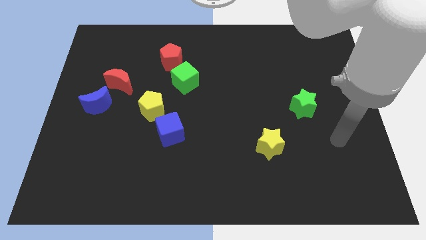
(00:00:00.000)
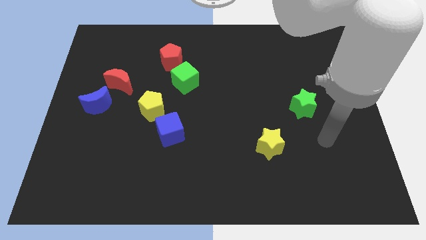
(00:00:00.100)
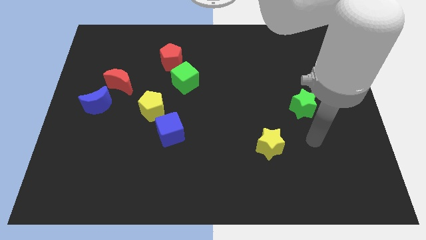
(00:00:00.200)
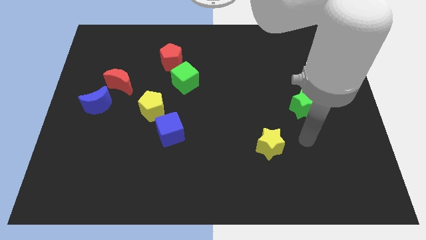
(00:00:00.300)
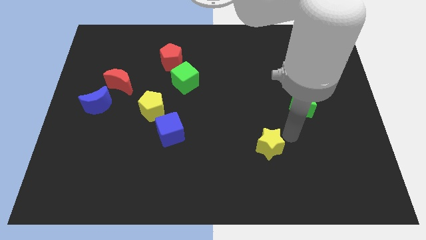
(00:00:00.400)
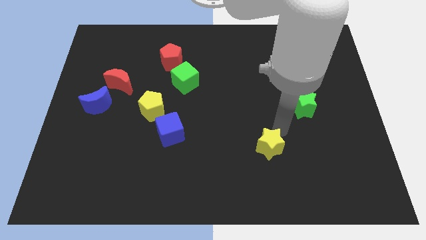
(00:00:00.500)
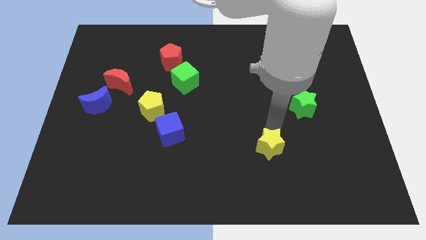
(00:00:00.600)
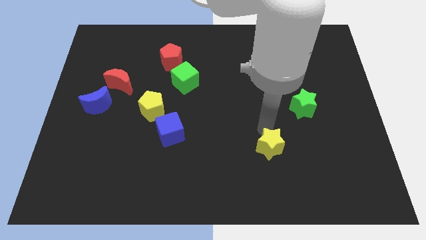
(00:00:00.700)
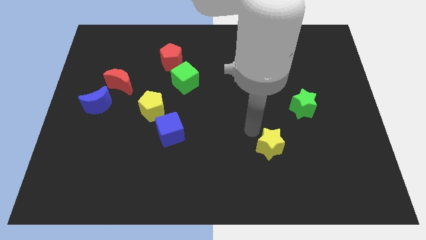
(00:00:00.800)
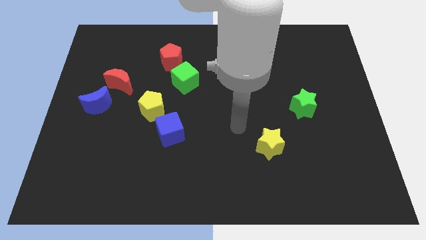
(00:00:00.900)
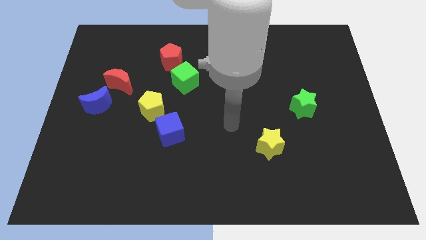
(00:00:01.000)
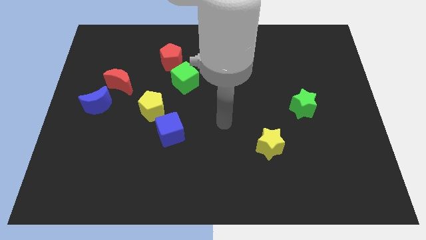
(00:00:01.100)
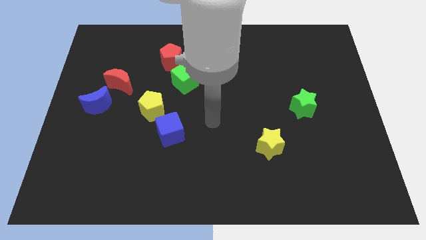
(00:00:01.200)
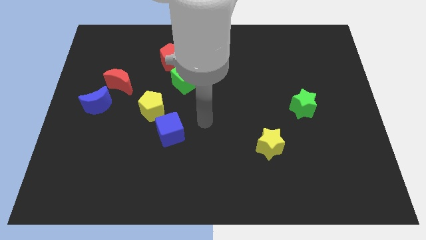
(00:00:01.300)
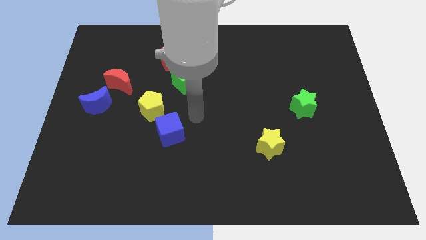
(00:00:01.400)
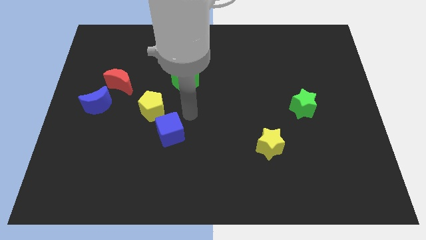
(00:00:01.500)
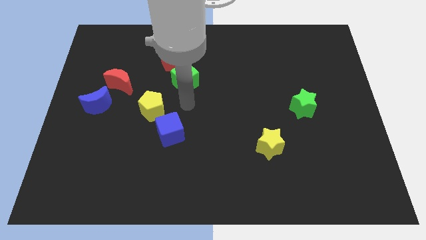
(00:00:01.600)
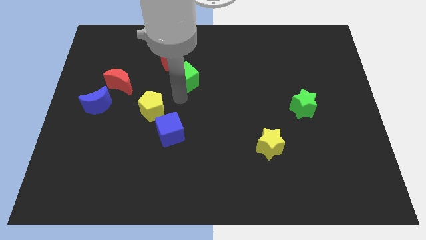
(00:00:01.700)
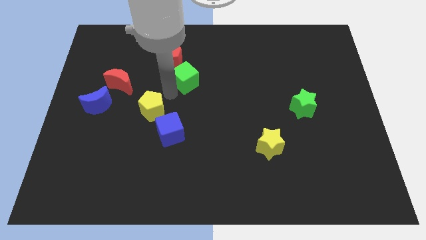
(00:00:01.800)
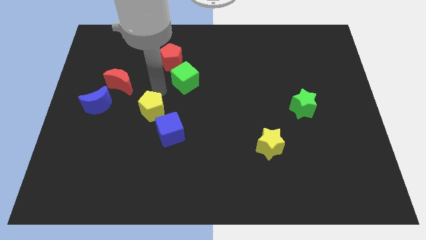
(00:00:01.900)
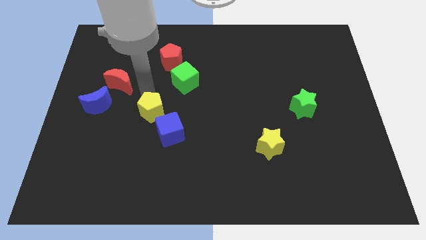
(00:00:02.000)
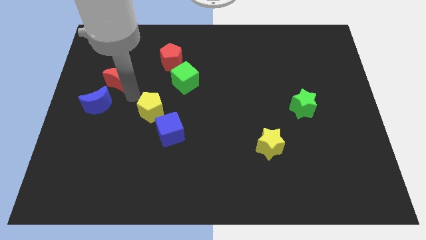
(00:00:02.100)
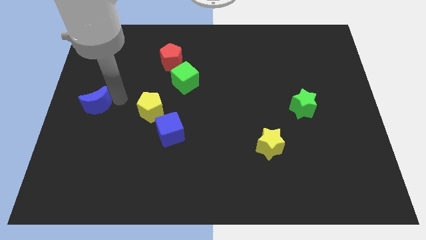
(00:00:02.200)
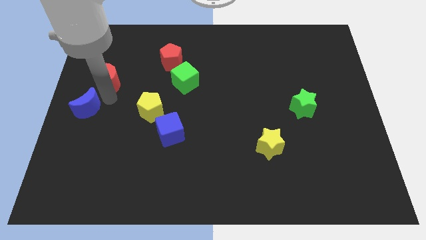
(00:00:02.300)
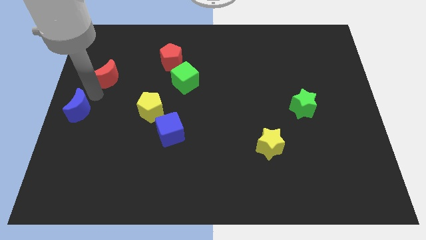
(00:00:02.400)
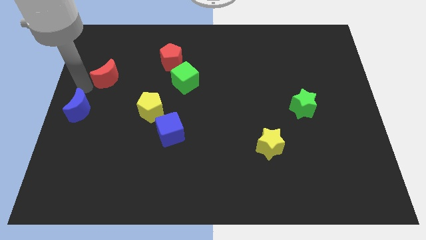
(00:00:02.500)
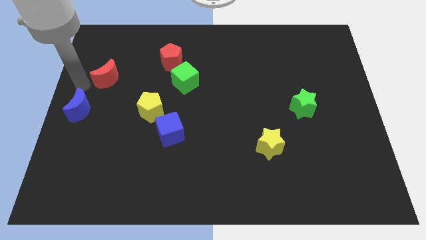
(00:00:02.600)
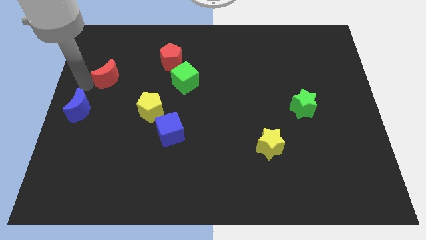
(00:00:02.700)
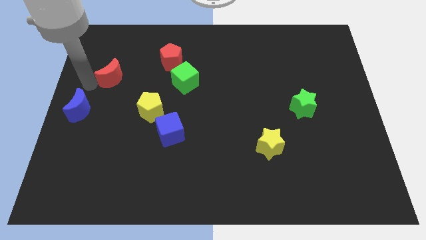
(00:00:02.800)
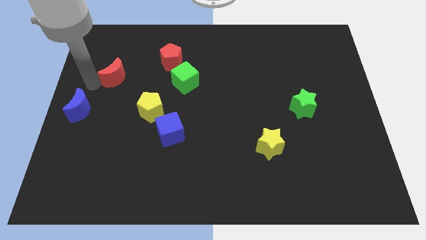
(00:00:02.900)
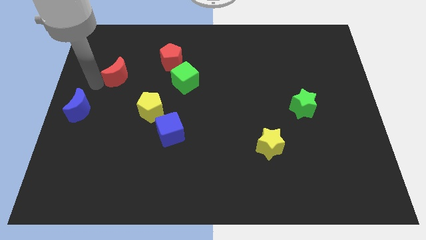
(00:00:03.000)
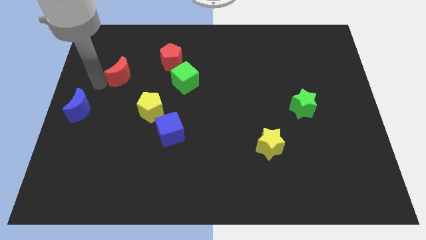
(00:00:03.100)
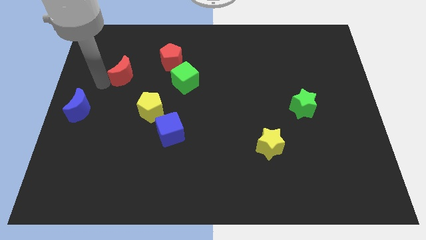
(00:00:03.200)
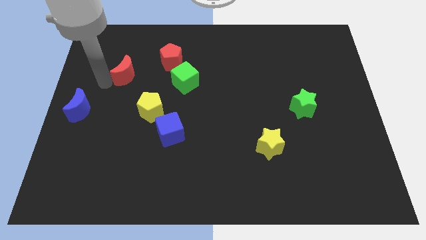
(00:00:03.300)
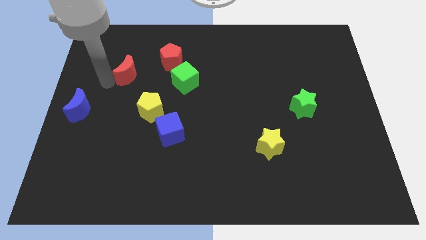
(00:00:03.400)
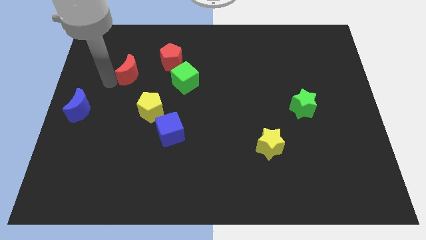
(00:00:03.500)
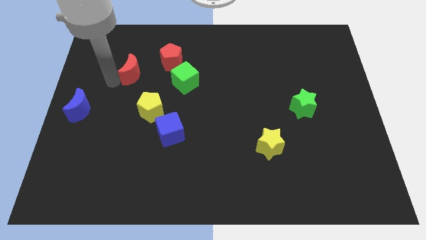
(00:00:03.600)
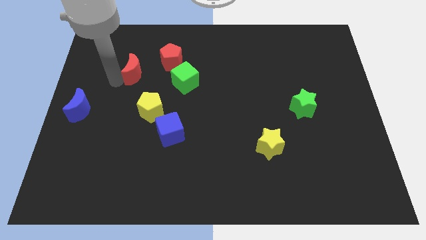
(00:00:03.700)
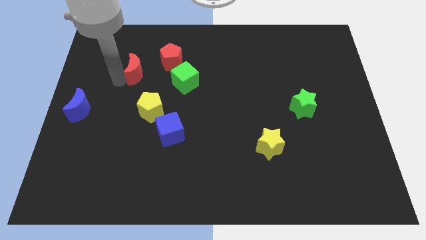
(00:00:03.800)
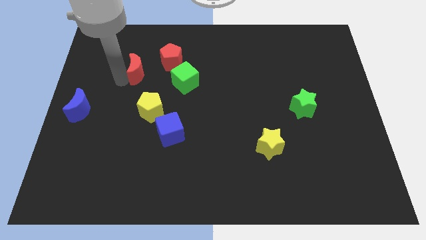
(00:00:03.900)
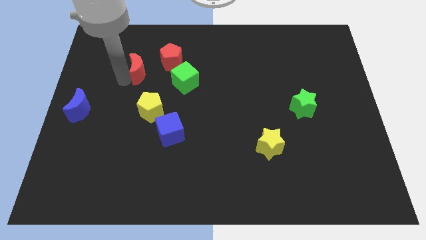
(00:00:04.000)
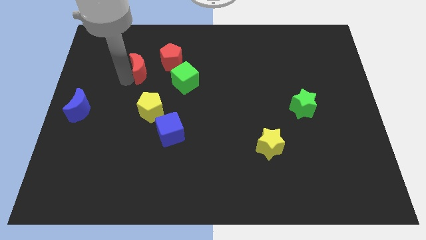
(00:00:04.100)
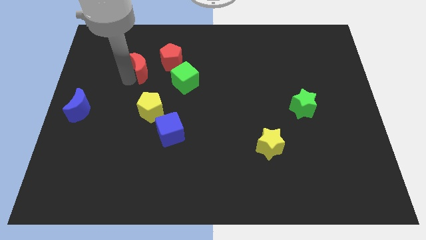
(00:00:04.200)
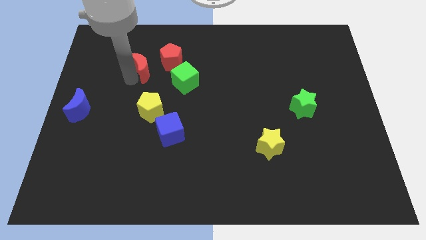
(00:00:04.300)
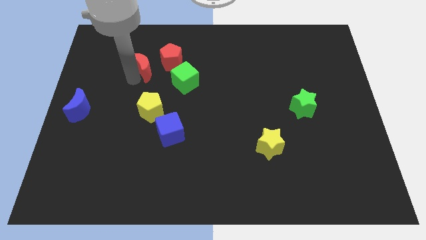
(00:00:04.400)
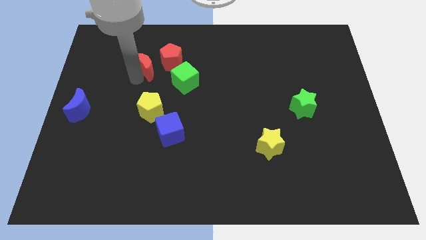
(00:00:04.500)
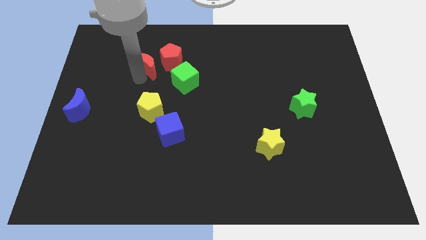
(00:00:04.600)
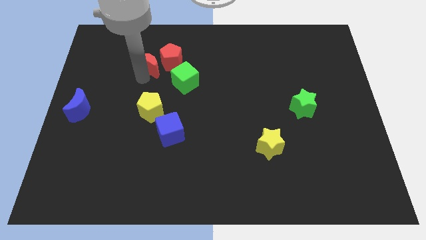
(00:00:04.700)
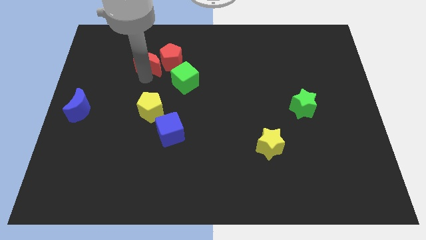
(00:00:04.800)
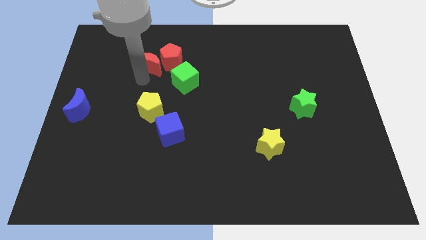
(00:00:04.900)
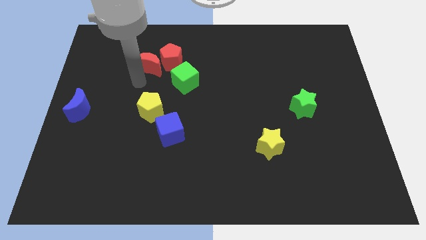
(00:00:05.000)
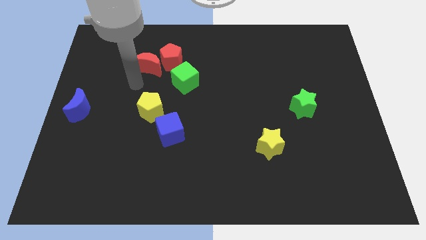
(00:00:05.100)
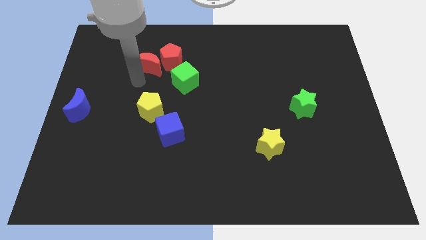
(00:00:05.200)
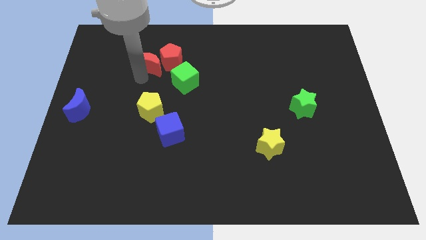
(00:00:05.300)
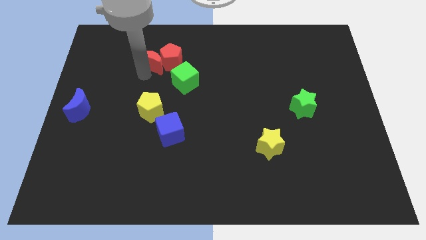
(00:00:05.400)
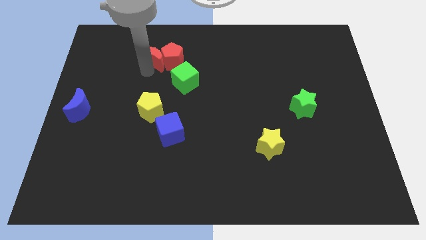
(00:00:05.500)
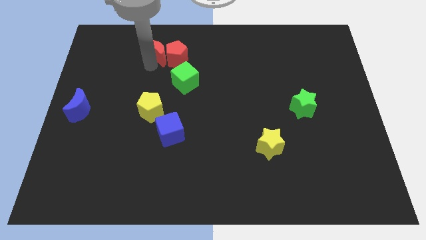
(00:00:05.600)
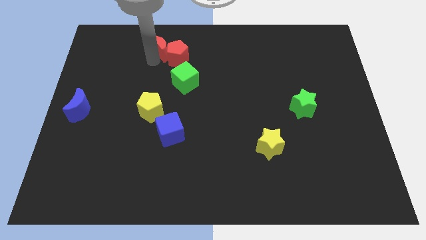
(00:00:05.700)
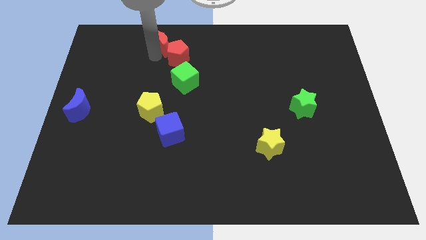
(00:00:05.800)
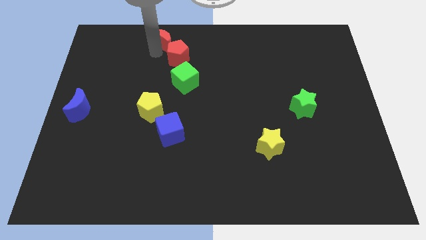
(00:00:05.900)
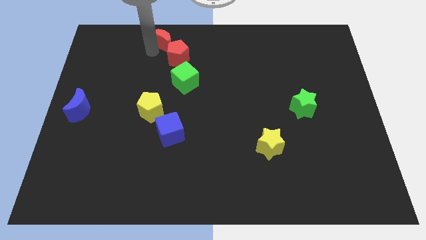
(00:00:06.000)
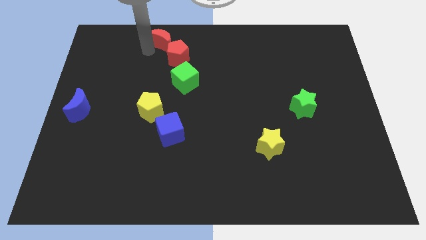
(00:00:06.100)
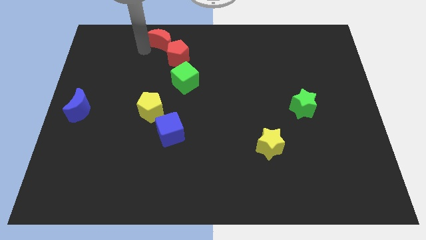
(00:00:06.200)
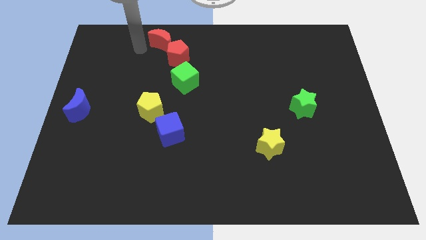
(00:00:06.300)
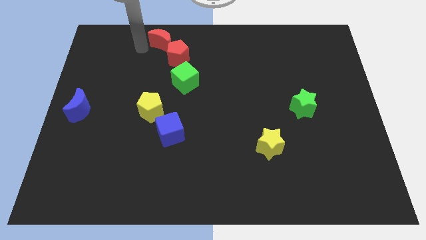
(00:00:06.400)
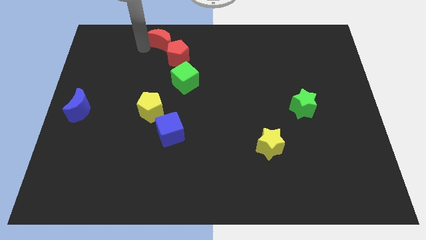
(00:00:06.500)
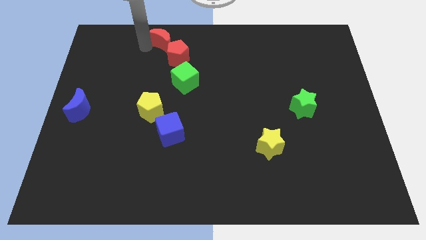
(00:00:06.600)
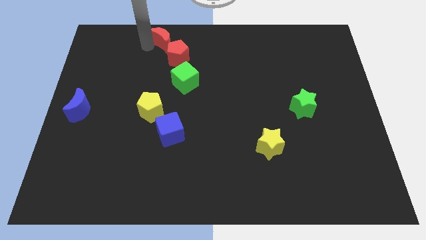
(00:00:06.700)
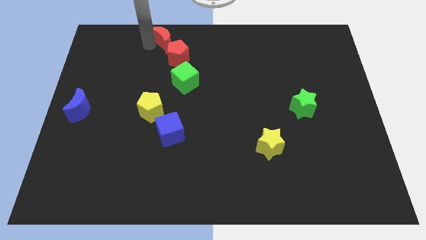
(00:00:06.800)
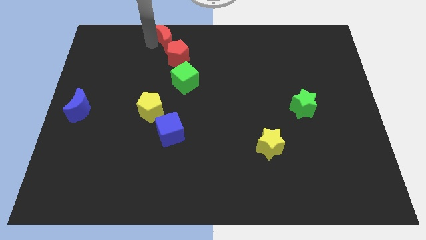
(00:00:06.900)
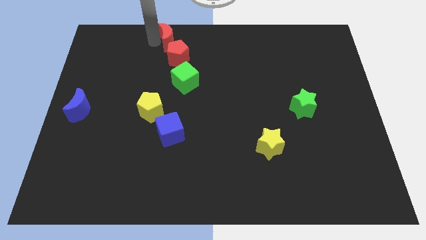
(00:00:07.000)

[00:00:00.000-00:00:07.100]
push the red moon to the top
